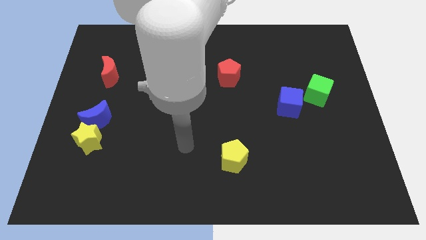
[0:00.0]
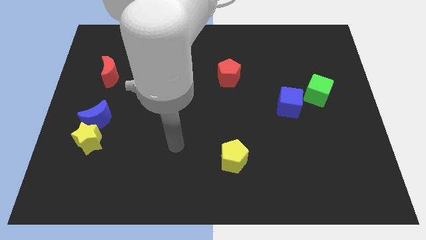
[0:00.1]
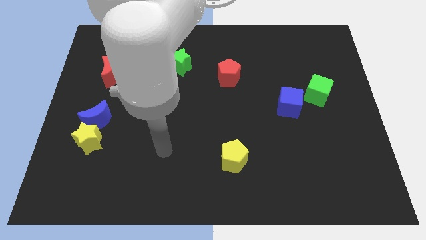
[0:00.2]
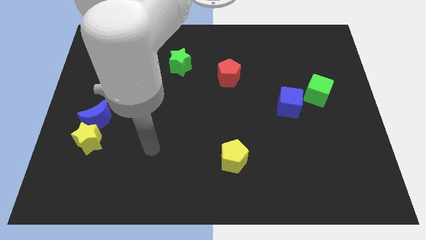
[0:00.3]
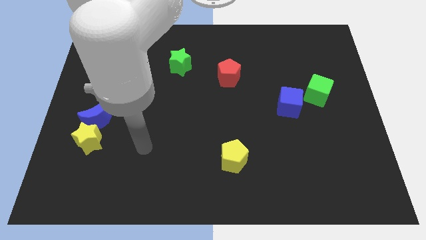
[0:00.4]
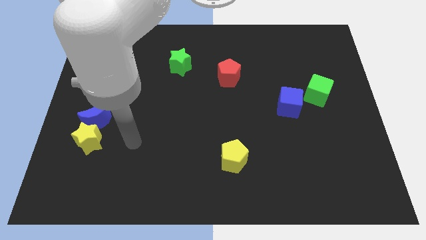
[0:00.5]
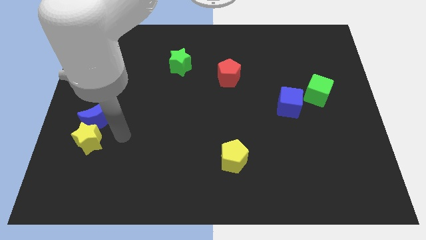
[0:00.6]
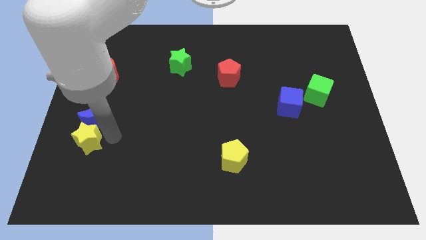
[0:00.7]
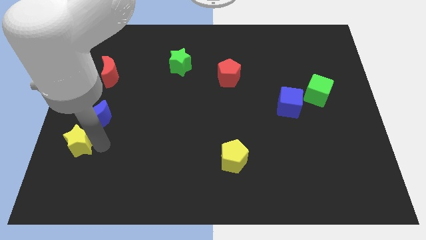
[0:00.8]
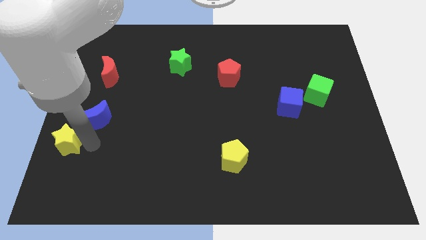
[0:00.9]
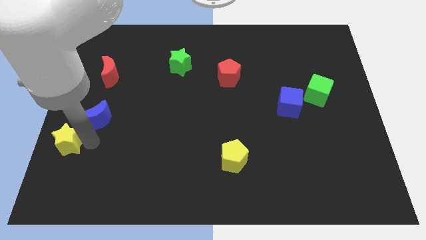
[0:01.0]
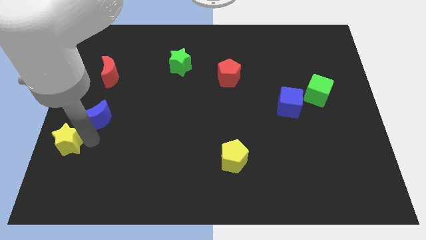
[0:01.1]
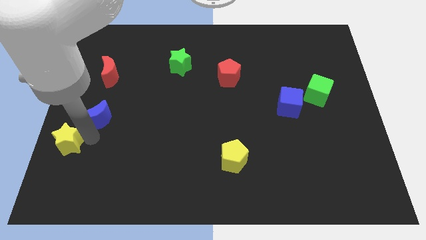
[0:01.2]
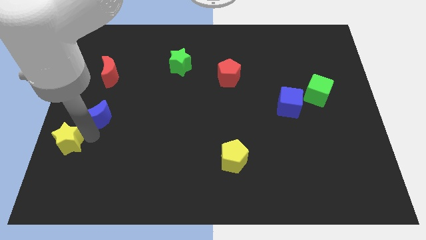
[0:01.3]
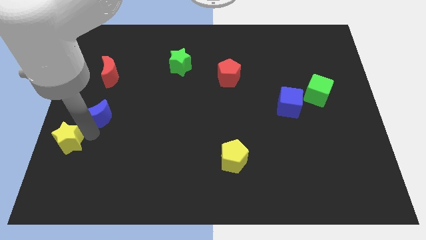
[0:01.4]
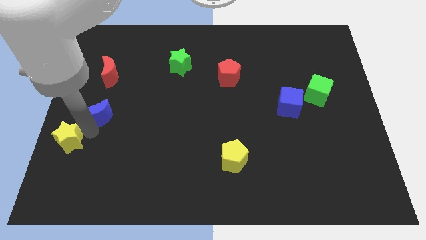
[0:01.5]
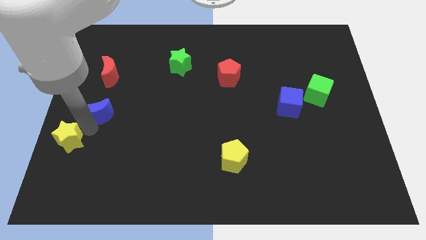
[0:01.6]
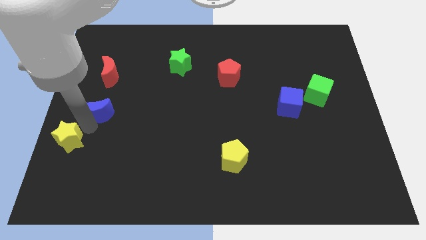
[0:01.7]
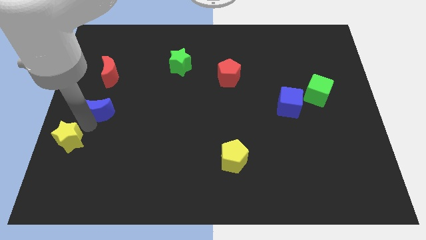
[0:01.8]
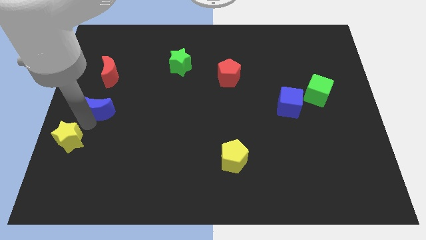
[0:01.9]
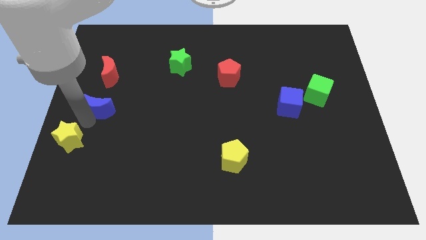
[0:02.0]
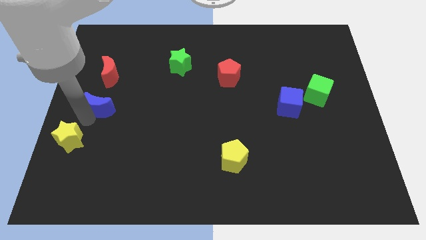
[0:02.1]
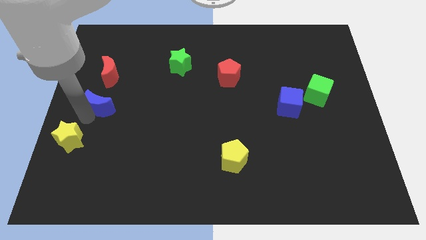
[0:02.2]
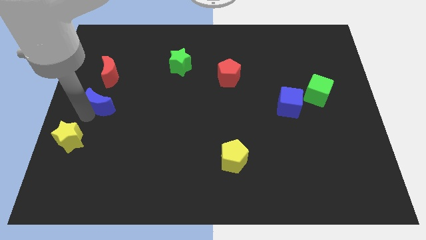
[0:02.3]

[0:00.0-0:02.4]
separate the blue moon from the yellow star

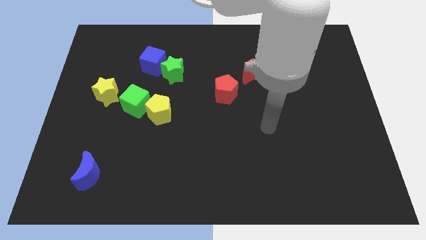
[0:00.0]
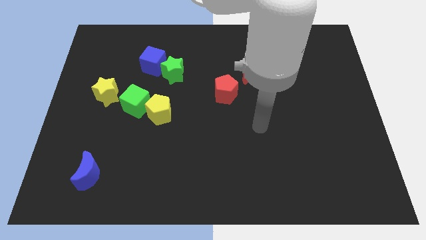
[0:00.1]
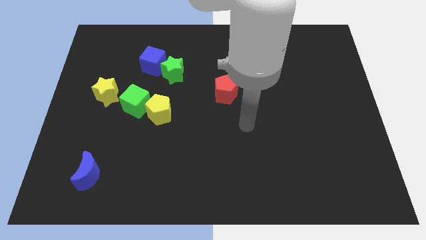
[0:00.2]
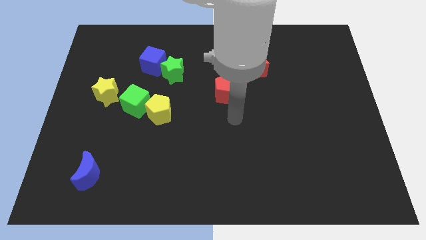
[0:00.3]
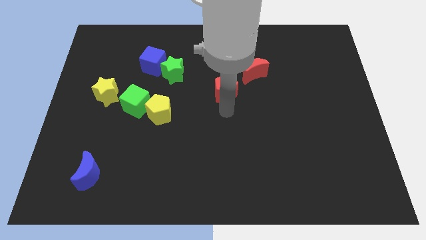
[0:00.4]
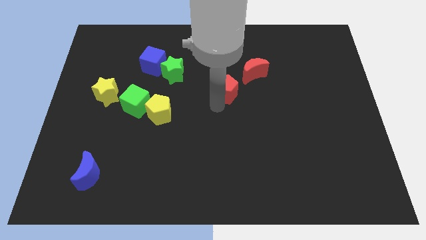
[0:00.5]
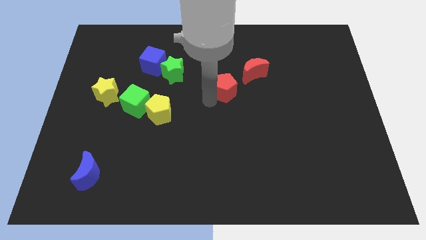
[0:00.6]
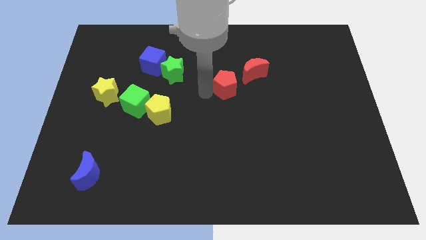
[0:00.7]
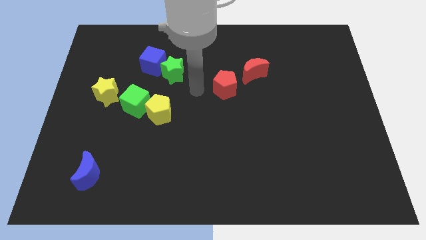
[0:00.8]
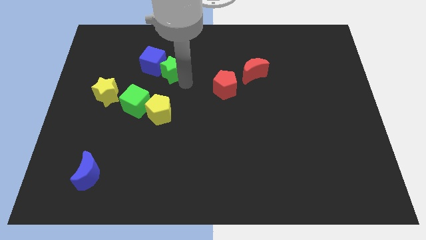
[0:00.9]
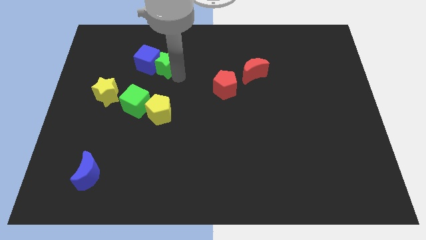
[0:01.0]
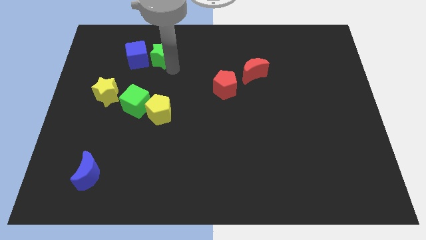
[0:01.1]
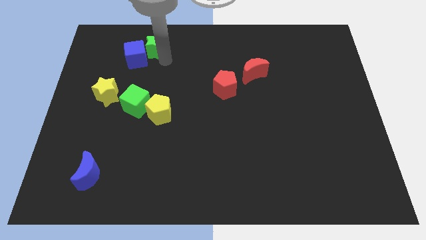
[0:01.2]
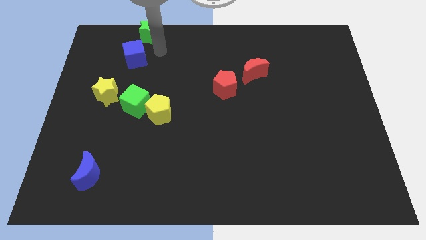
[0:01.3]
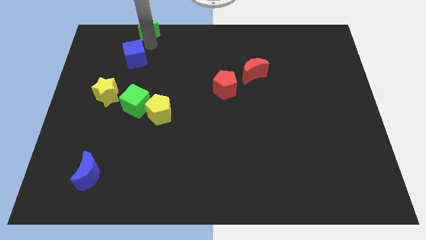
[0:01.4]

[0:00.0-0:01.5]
pull the blue cube apart from the green star

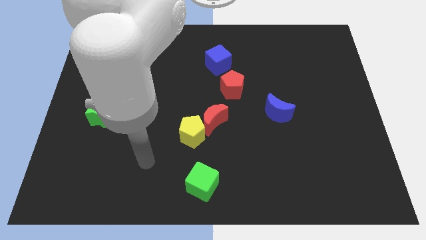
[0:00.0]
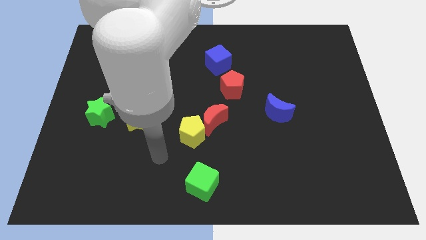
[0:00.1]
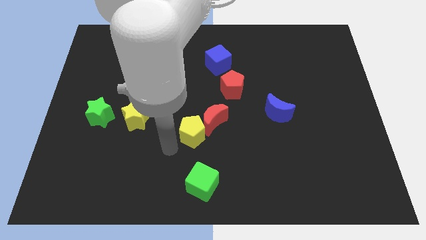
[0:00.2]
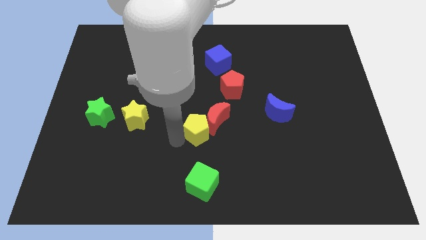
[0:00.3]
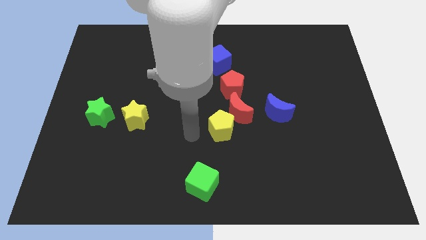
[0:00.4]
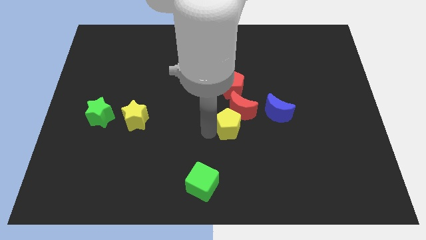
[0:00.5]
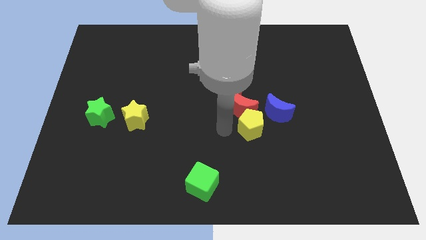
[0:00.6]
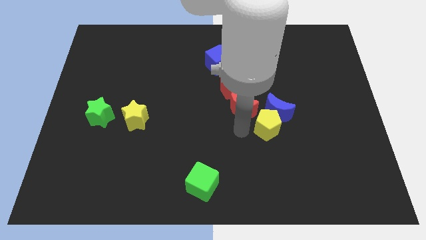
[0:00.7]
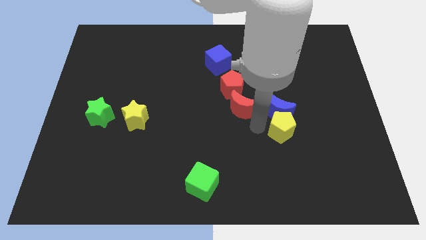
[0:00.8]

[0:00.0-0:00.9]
separate the red moon from the yellow pentagon

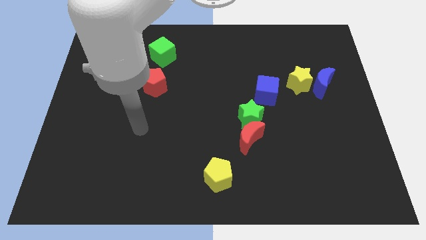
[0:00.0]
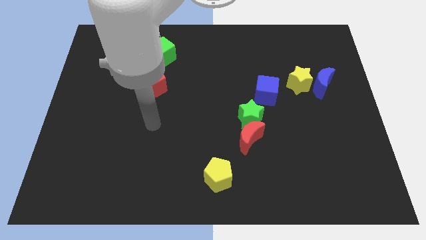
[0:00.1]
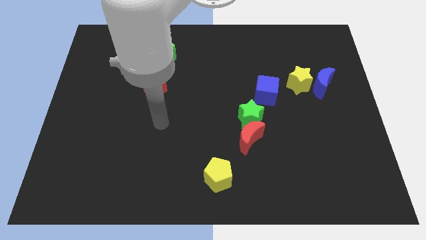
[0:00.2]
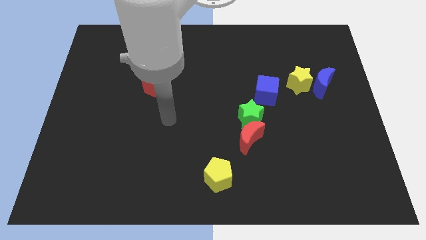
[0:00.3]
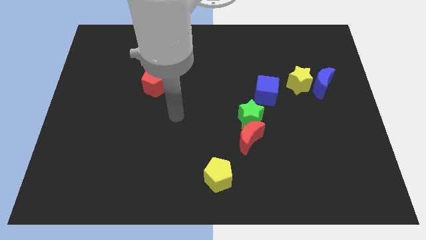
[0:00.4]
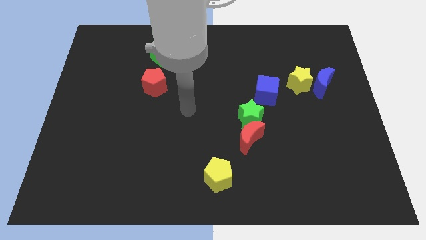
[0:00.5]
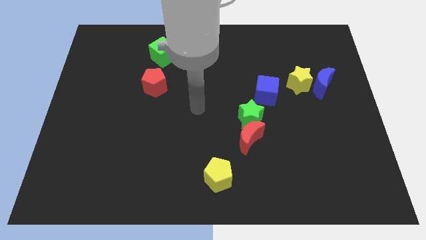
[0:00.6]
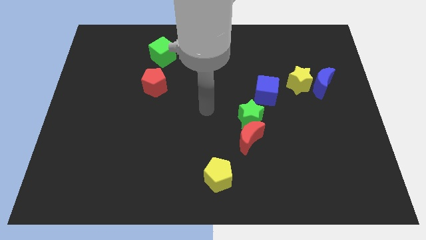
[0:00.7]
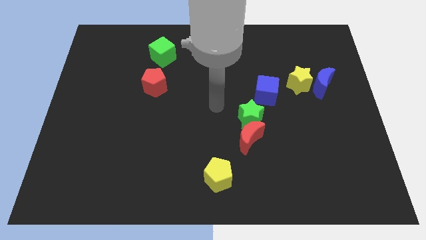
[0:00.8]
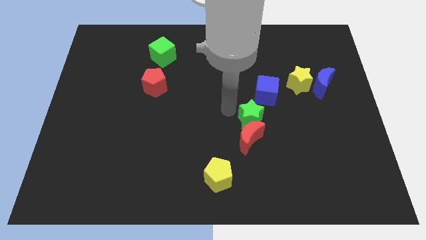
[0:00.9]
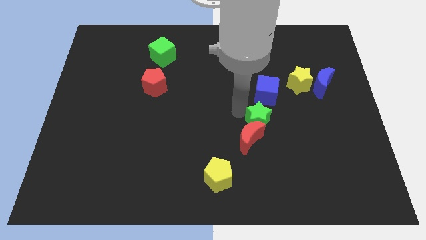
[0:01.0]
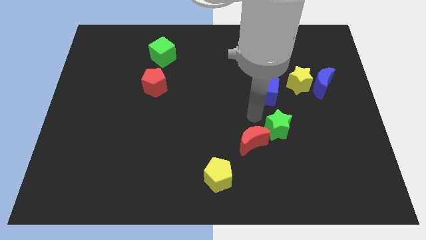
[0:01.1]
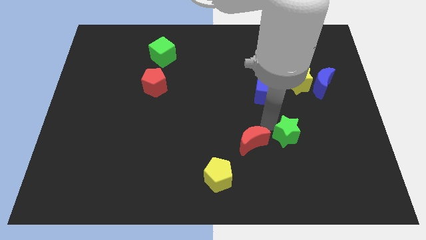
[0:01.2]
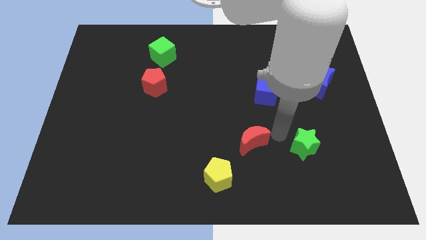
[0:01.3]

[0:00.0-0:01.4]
separate the red moon from the green star

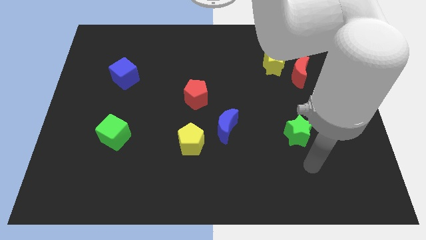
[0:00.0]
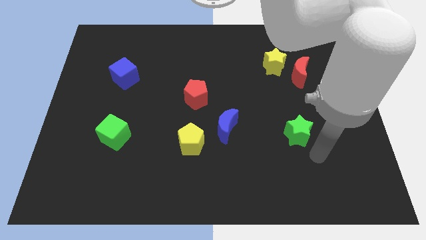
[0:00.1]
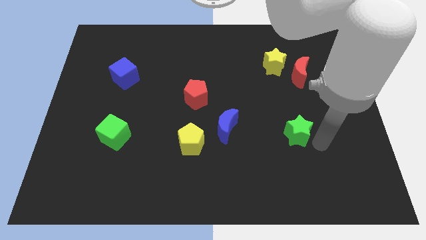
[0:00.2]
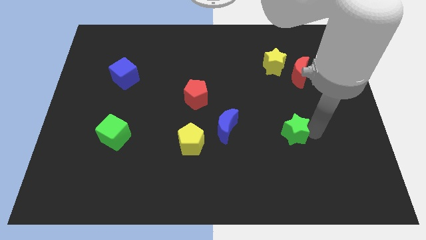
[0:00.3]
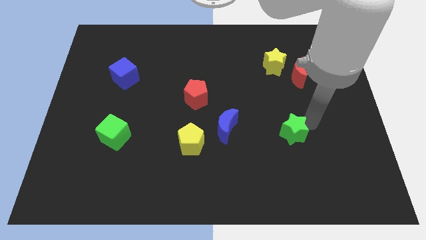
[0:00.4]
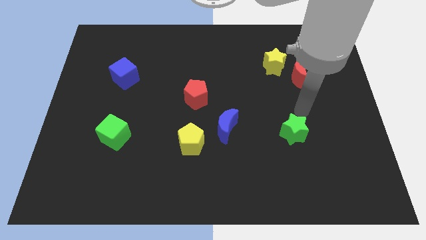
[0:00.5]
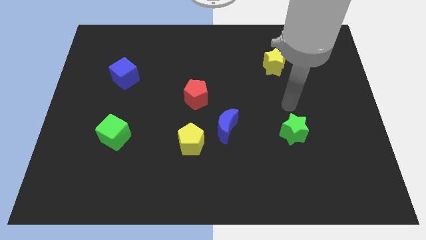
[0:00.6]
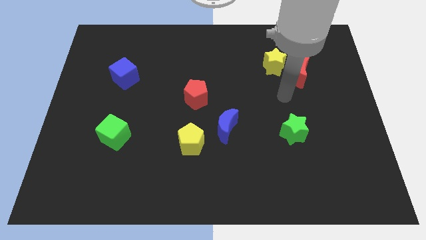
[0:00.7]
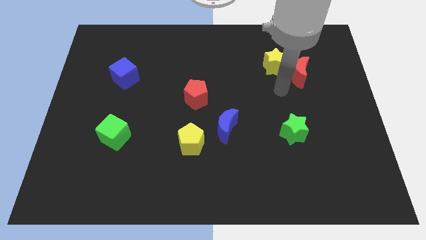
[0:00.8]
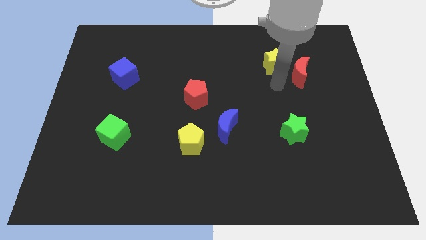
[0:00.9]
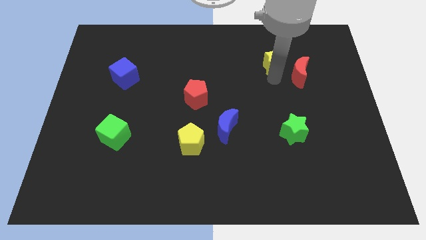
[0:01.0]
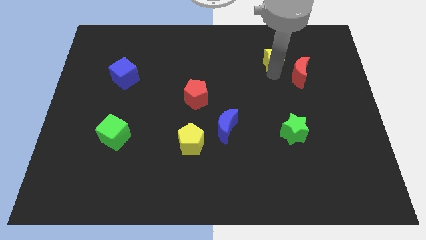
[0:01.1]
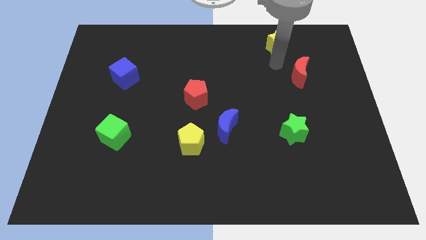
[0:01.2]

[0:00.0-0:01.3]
separate the red moon from the yellow star

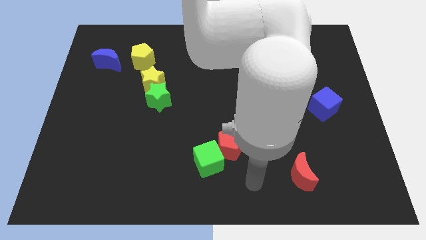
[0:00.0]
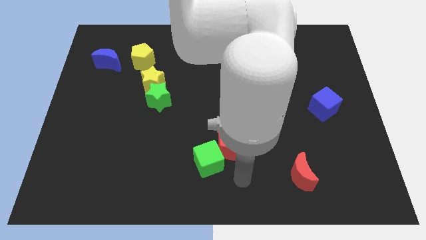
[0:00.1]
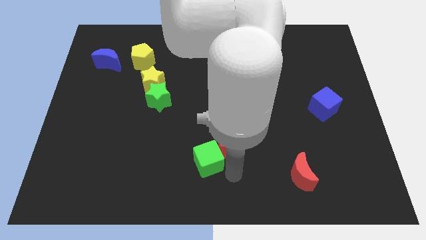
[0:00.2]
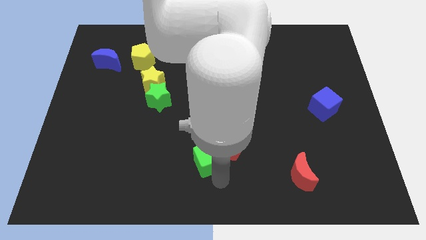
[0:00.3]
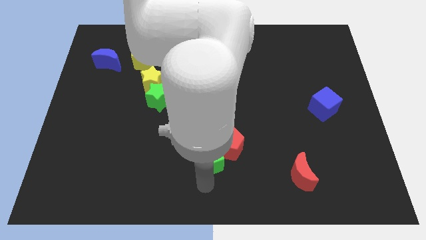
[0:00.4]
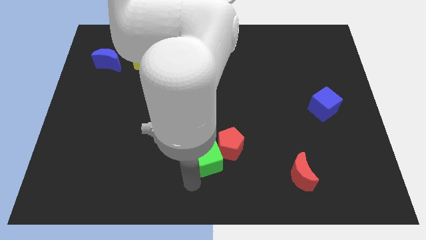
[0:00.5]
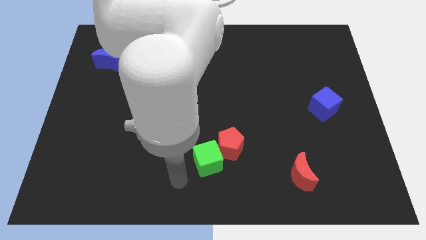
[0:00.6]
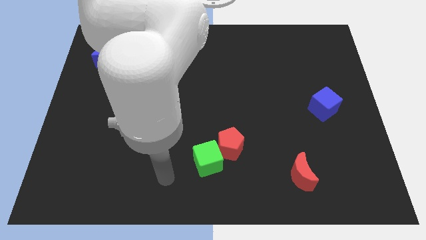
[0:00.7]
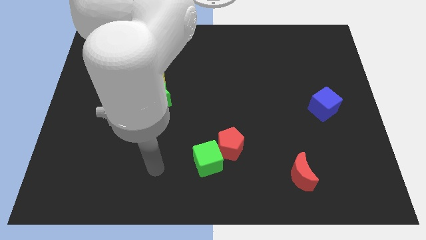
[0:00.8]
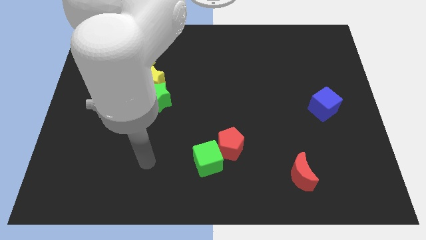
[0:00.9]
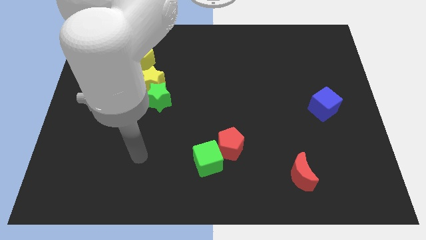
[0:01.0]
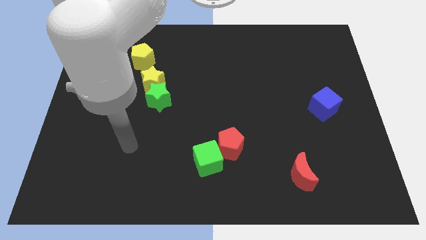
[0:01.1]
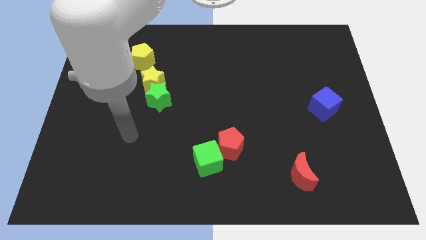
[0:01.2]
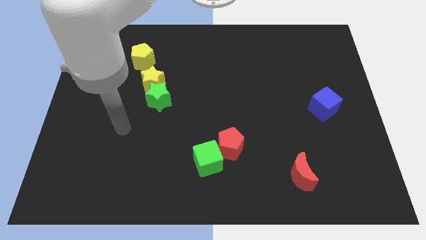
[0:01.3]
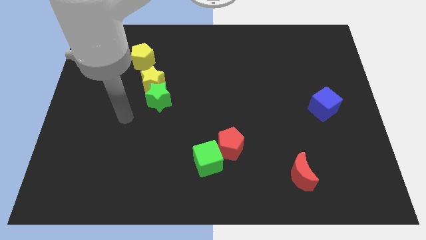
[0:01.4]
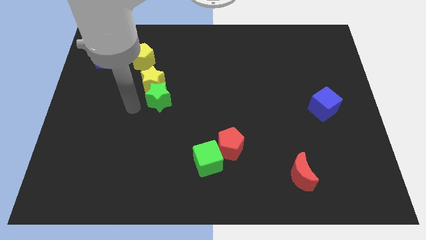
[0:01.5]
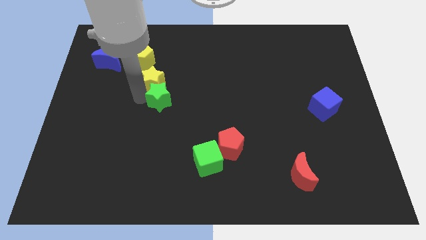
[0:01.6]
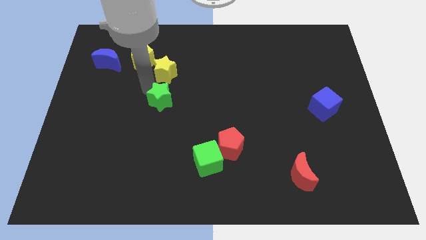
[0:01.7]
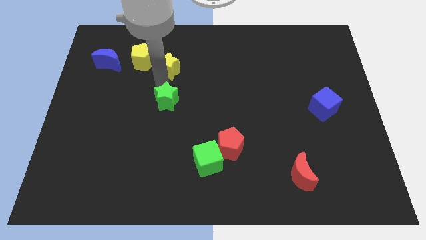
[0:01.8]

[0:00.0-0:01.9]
move the green star away from the yellow star
